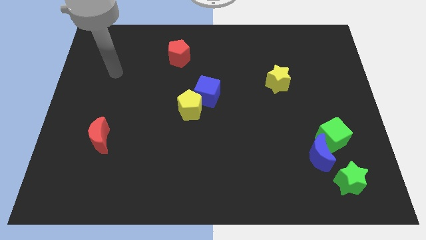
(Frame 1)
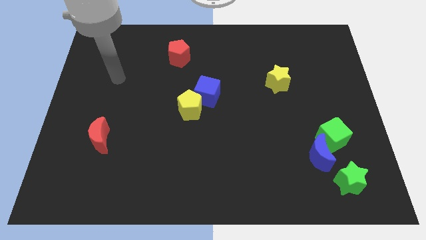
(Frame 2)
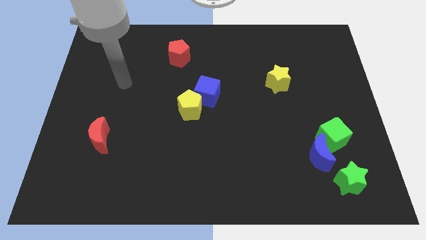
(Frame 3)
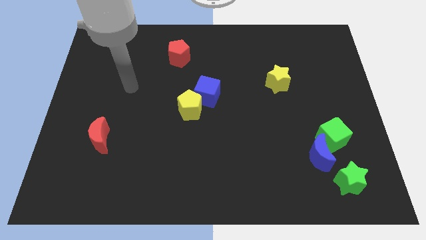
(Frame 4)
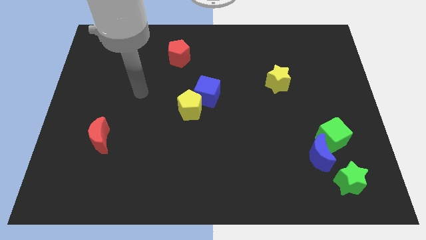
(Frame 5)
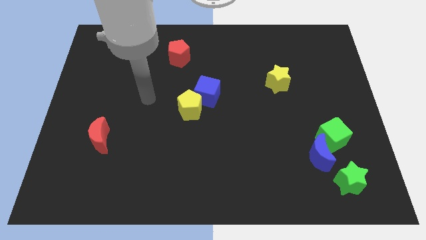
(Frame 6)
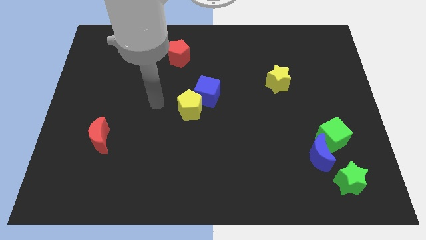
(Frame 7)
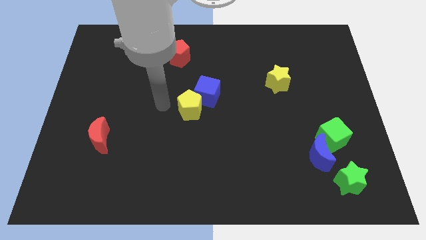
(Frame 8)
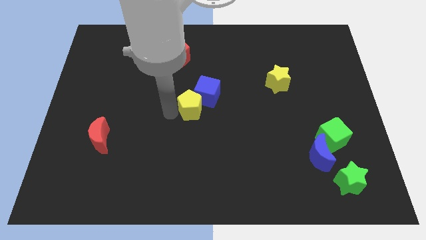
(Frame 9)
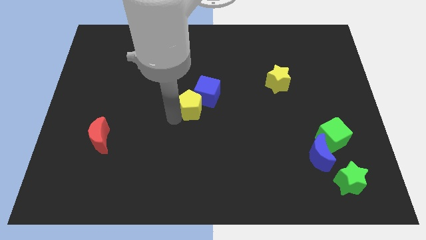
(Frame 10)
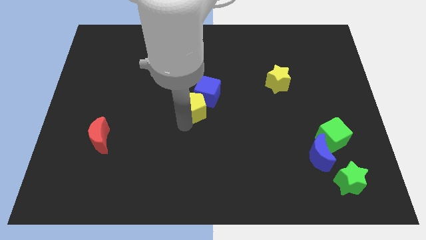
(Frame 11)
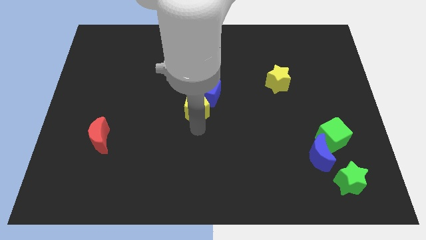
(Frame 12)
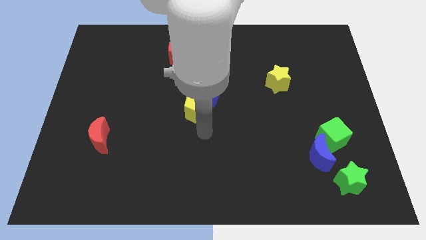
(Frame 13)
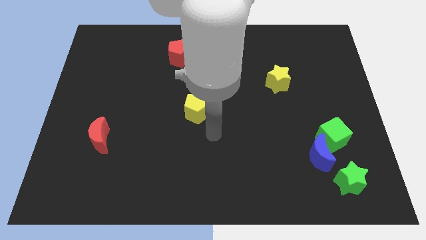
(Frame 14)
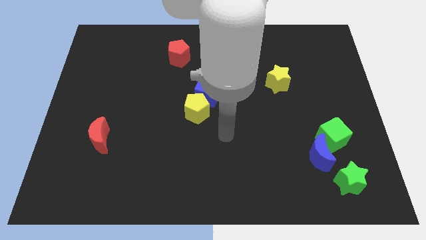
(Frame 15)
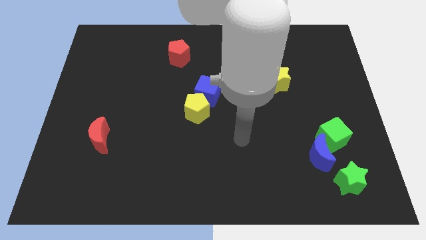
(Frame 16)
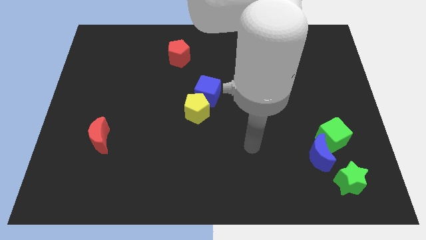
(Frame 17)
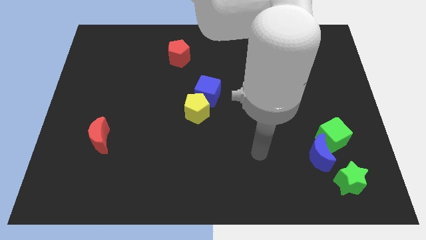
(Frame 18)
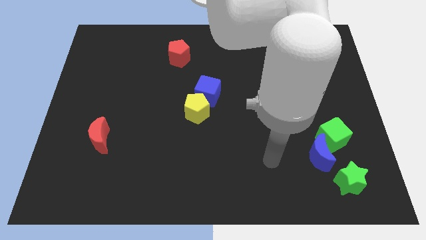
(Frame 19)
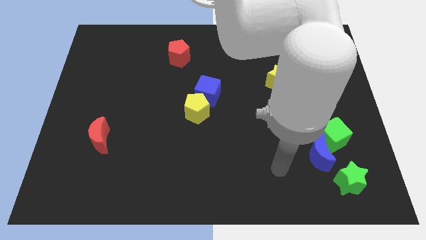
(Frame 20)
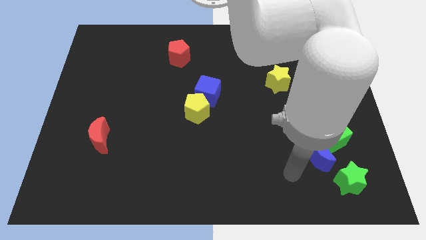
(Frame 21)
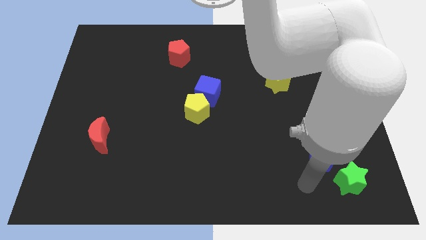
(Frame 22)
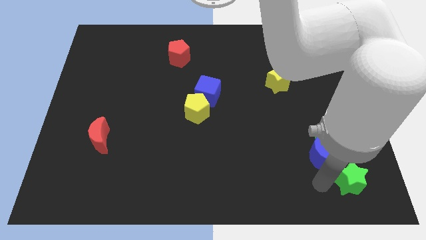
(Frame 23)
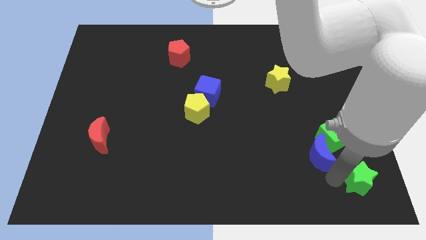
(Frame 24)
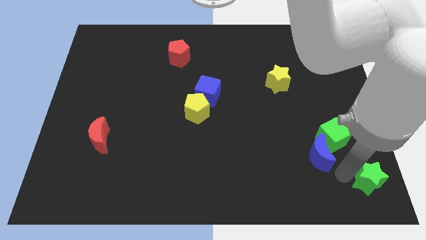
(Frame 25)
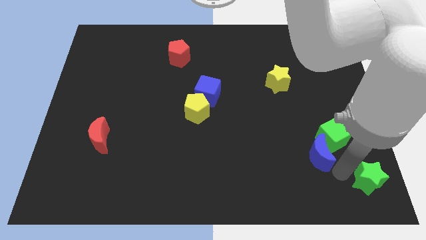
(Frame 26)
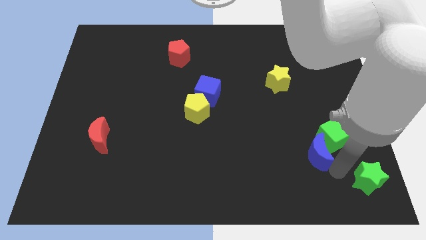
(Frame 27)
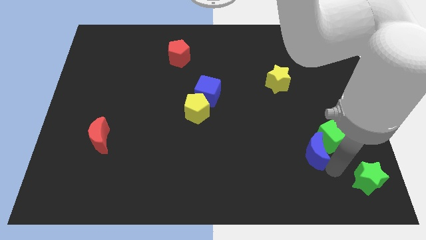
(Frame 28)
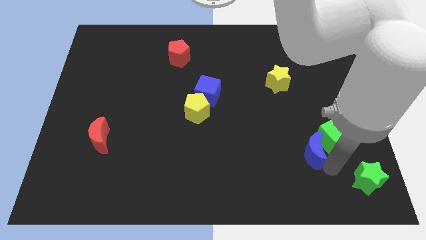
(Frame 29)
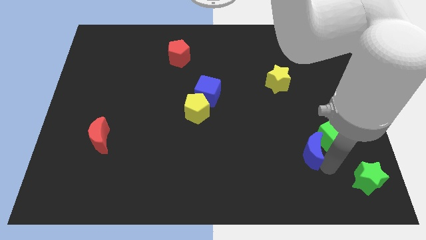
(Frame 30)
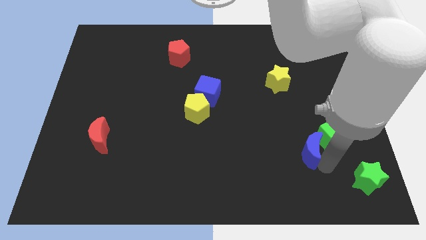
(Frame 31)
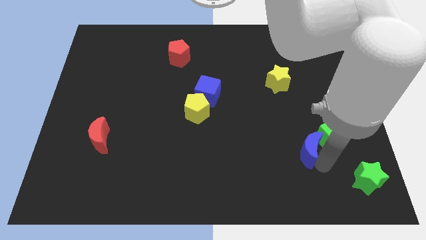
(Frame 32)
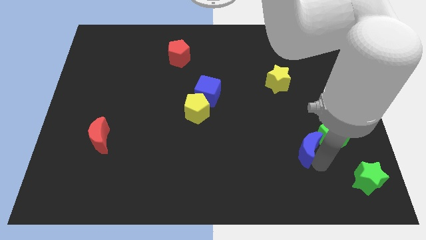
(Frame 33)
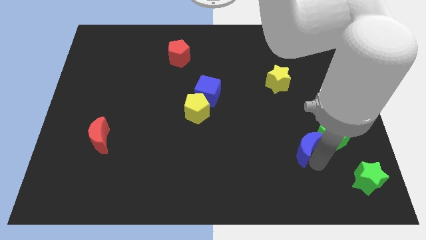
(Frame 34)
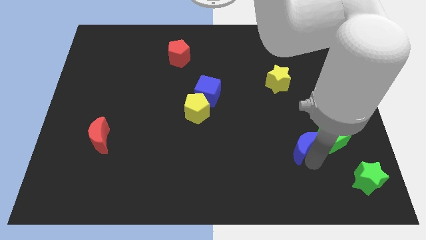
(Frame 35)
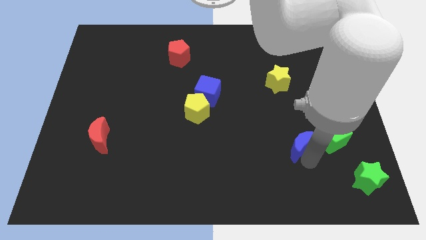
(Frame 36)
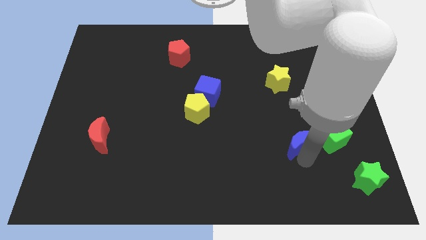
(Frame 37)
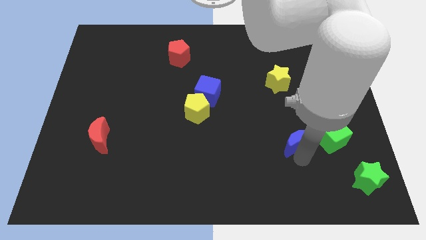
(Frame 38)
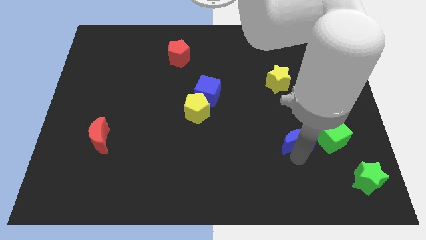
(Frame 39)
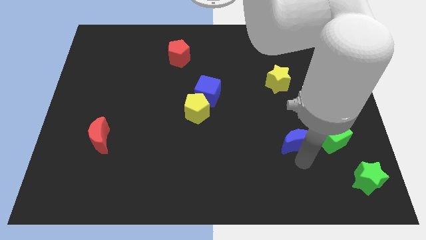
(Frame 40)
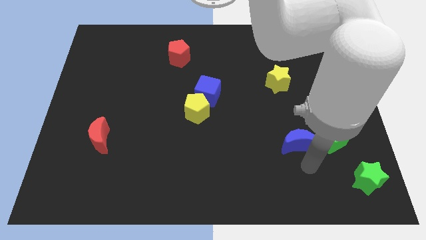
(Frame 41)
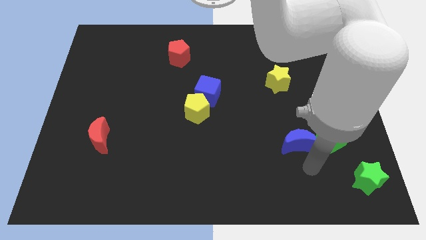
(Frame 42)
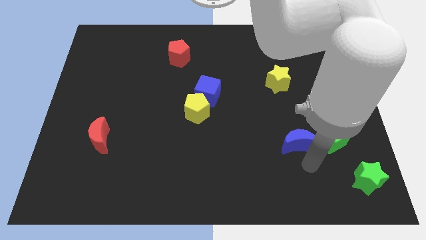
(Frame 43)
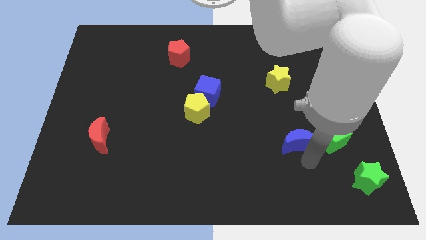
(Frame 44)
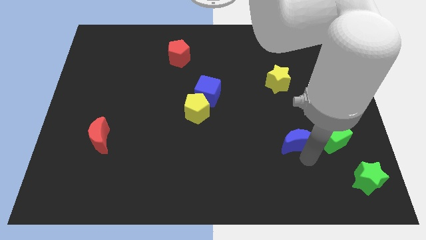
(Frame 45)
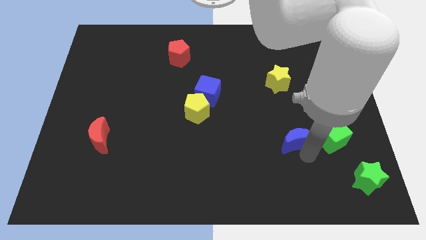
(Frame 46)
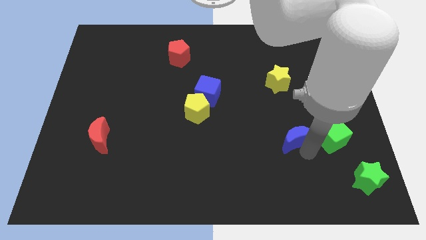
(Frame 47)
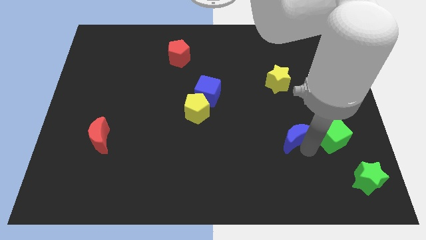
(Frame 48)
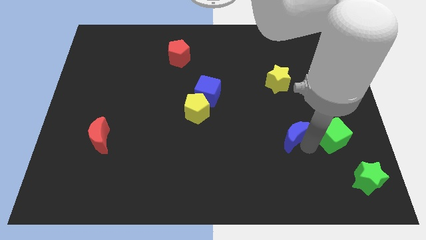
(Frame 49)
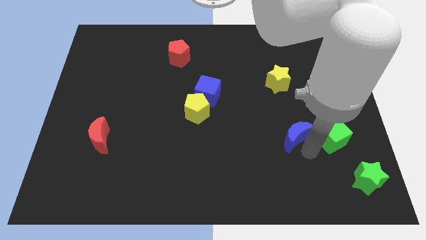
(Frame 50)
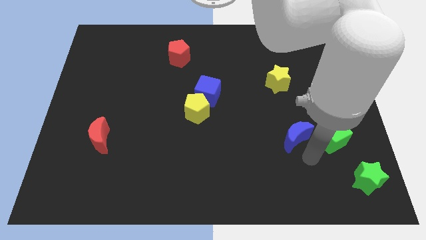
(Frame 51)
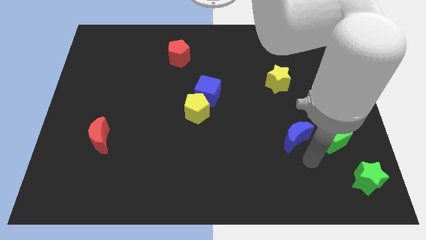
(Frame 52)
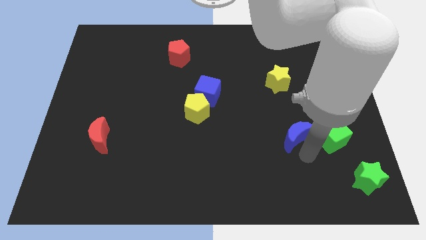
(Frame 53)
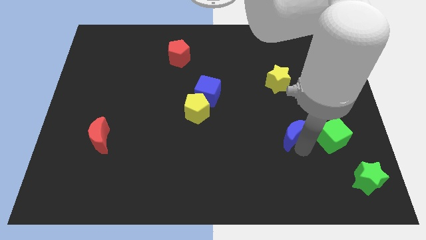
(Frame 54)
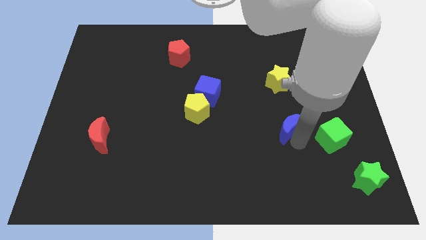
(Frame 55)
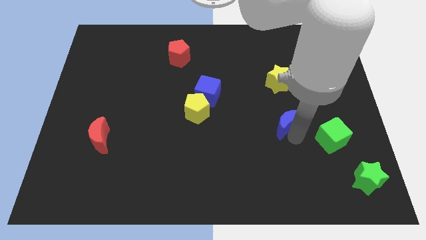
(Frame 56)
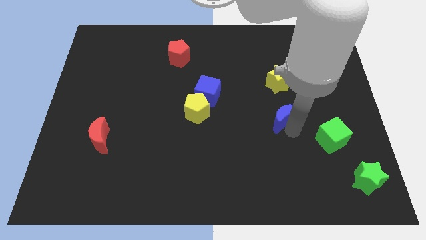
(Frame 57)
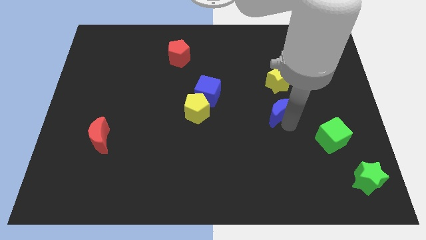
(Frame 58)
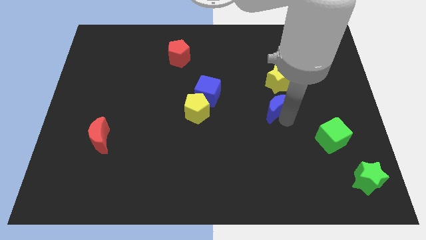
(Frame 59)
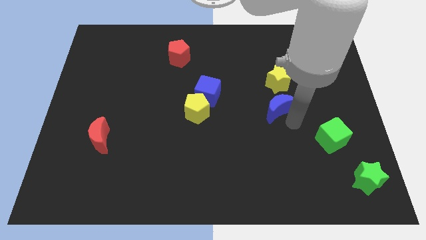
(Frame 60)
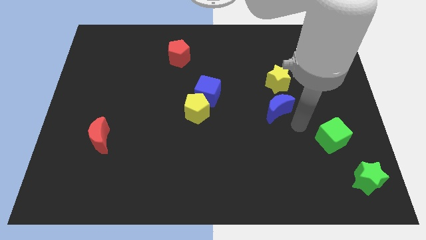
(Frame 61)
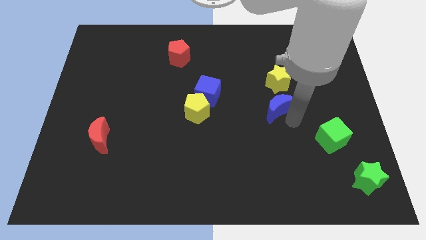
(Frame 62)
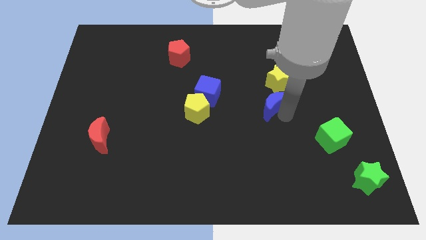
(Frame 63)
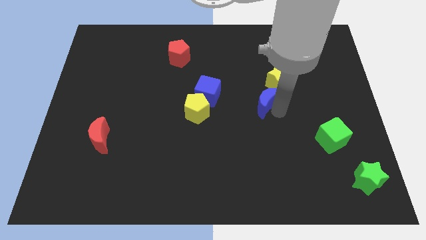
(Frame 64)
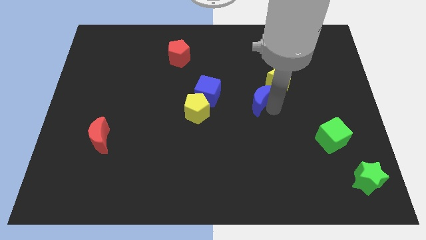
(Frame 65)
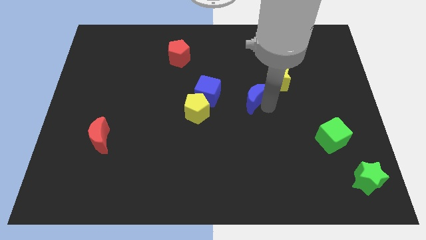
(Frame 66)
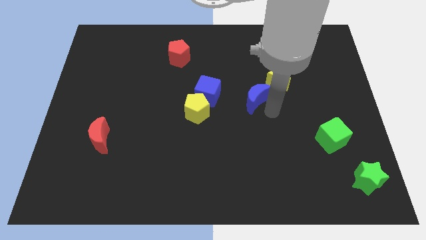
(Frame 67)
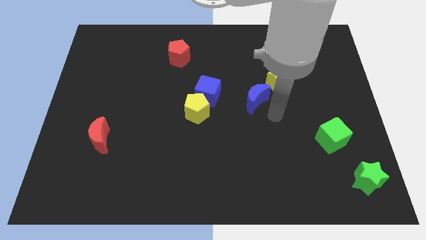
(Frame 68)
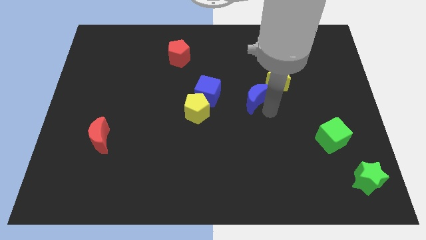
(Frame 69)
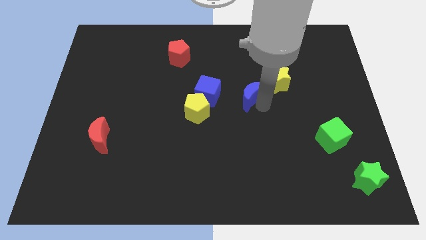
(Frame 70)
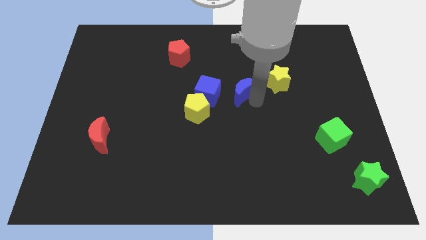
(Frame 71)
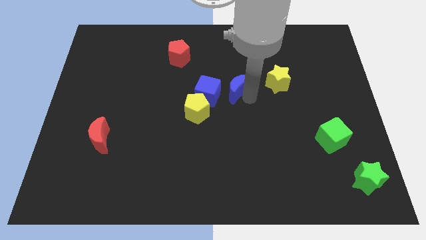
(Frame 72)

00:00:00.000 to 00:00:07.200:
move the blue moon to the top right of the blue cube
